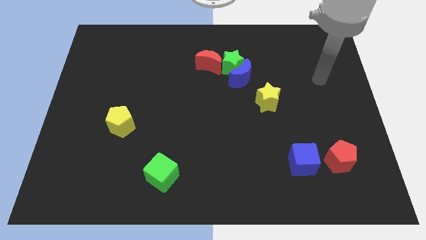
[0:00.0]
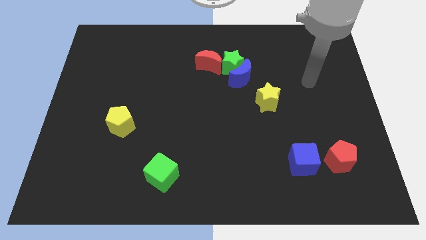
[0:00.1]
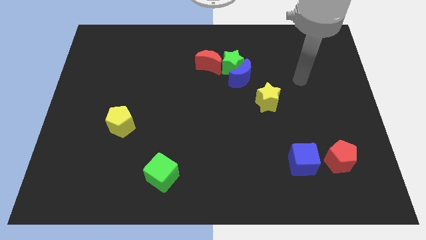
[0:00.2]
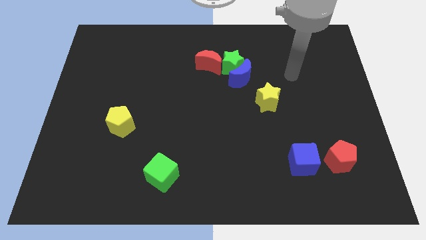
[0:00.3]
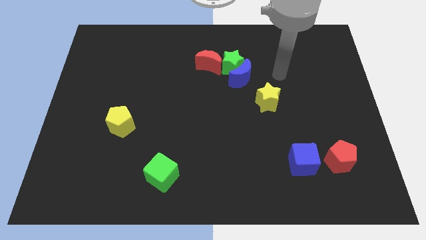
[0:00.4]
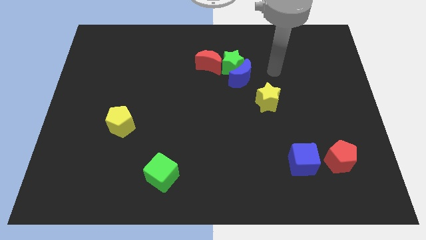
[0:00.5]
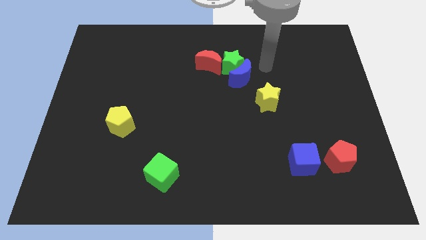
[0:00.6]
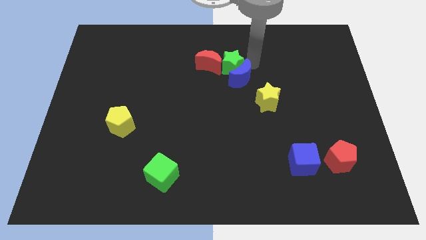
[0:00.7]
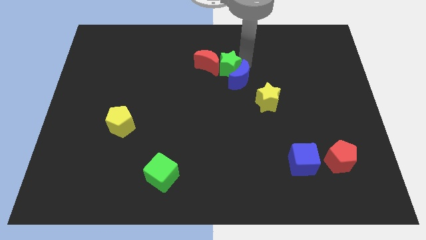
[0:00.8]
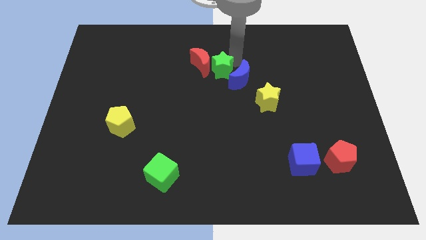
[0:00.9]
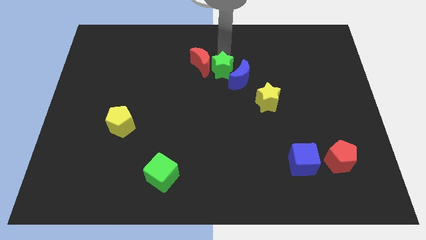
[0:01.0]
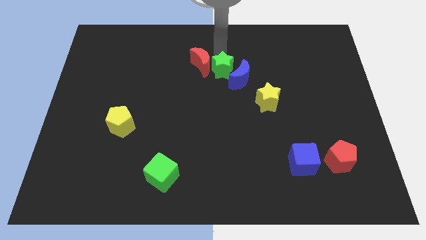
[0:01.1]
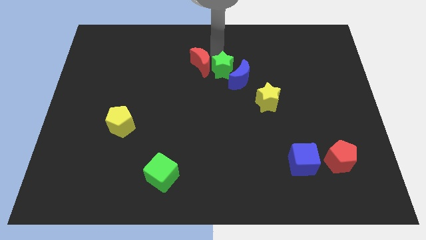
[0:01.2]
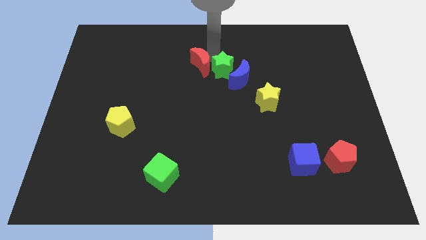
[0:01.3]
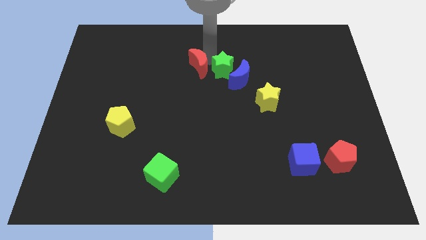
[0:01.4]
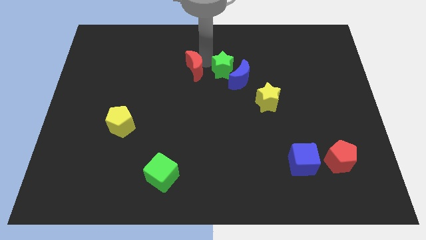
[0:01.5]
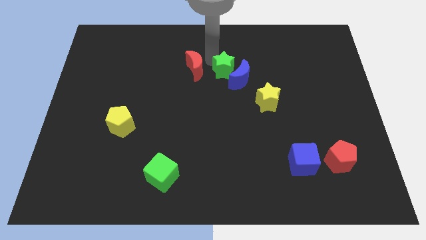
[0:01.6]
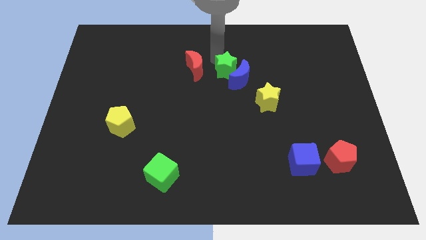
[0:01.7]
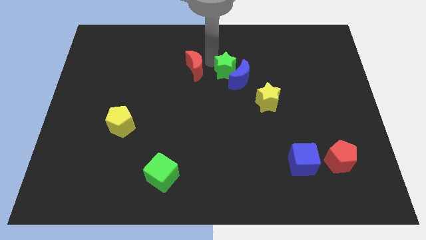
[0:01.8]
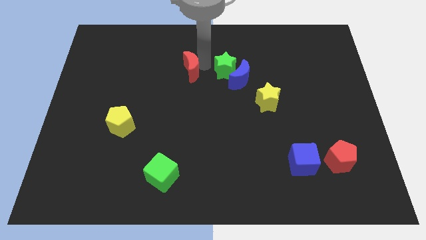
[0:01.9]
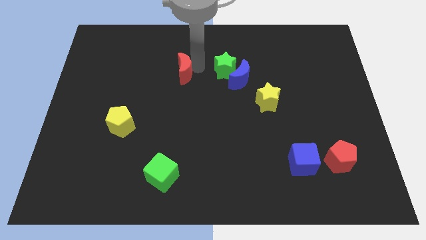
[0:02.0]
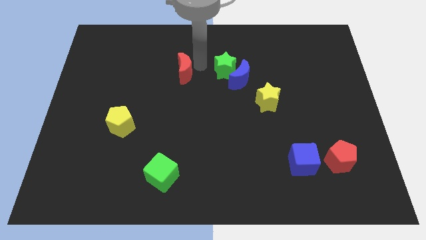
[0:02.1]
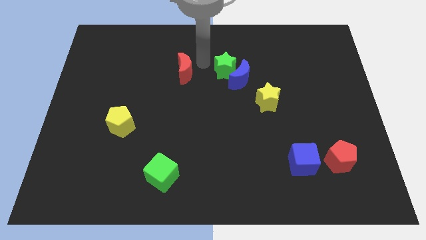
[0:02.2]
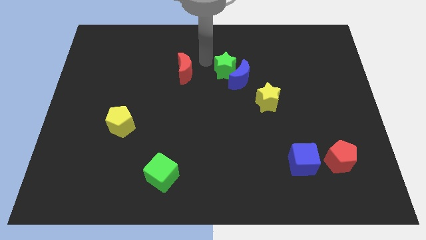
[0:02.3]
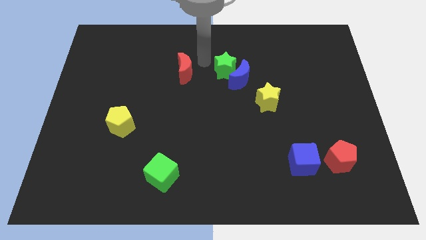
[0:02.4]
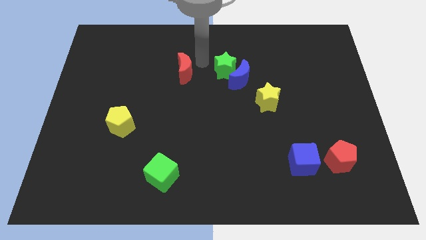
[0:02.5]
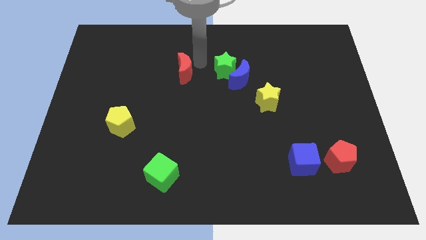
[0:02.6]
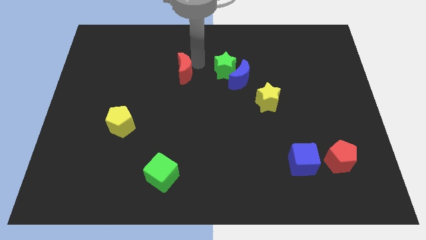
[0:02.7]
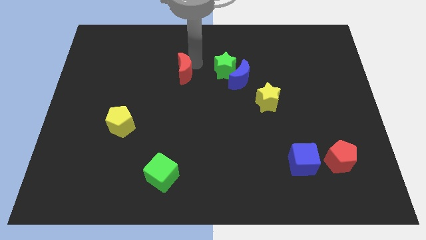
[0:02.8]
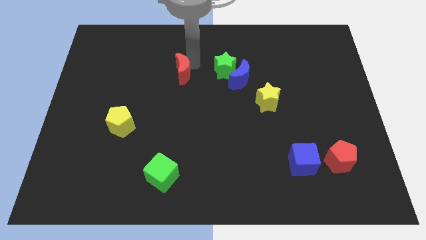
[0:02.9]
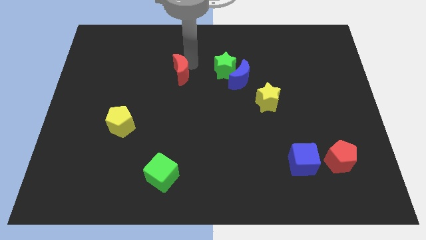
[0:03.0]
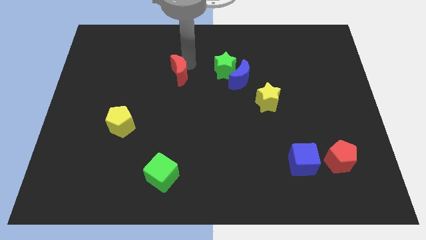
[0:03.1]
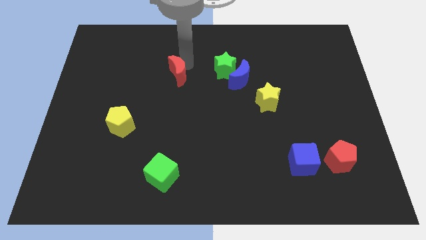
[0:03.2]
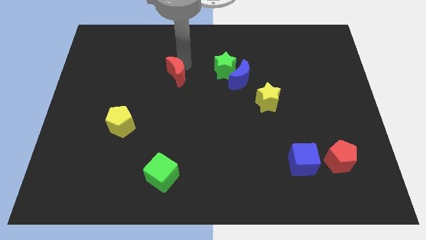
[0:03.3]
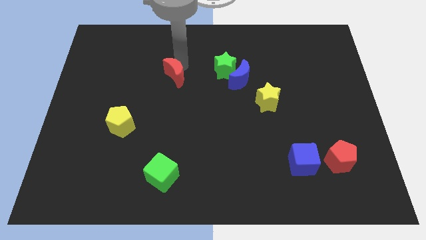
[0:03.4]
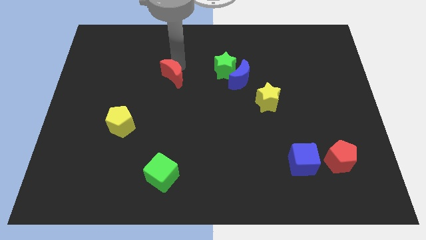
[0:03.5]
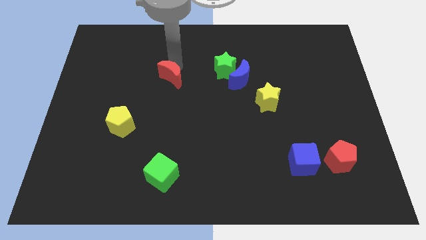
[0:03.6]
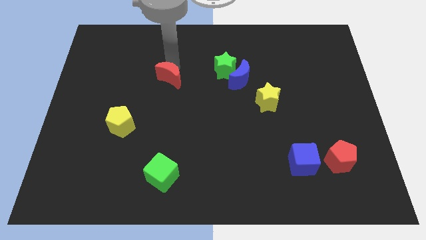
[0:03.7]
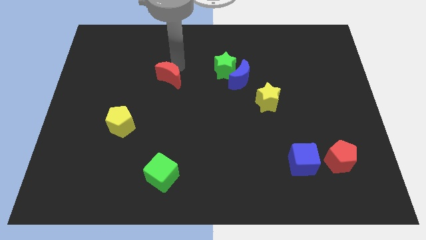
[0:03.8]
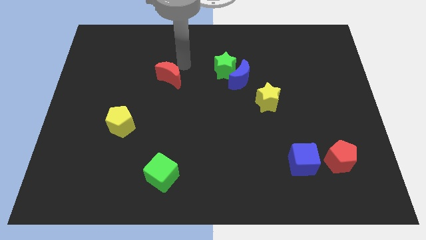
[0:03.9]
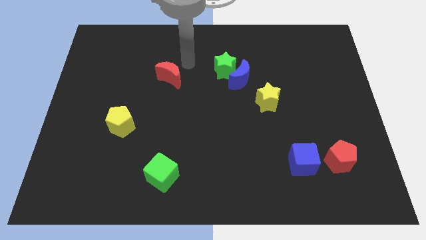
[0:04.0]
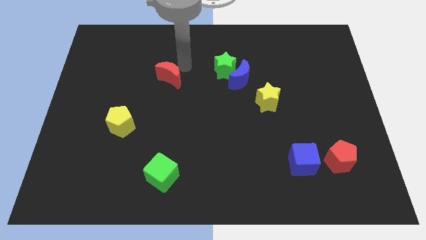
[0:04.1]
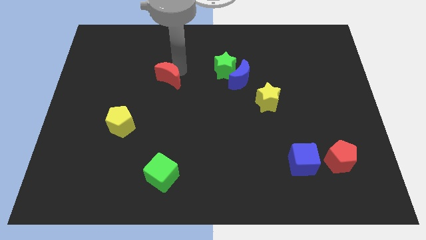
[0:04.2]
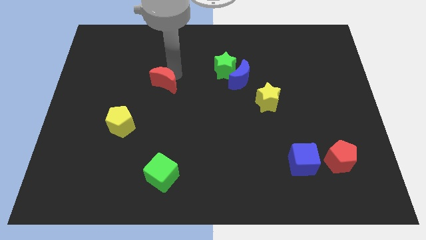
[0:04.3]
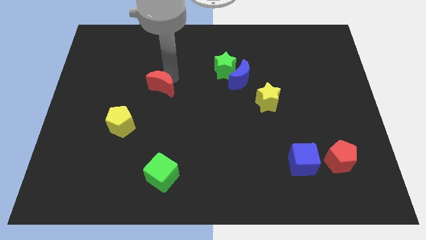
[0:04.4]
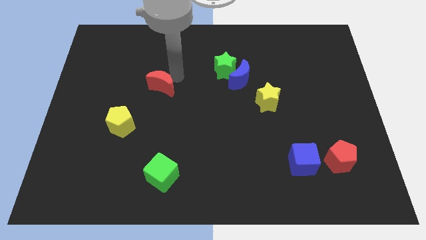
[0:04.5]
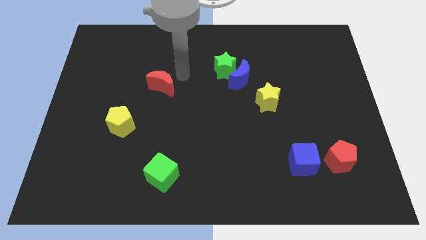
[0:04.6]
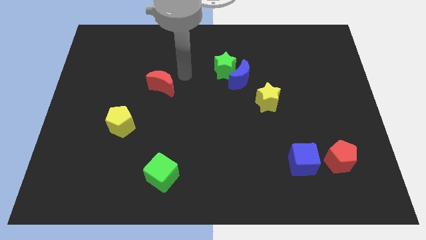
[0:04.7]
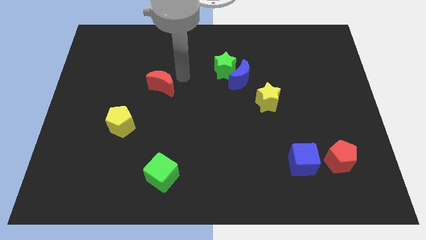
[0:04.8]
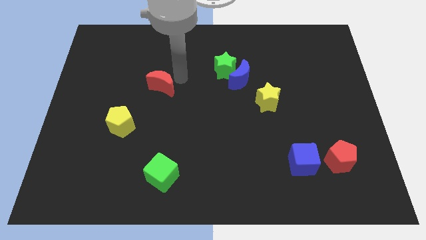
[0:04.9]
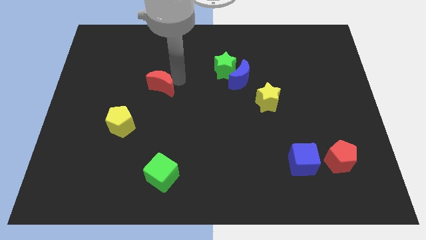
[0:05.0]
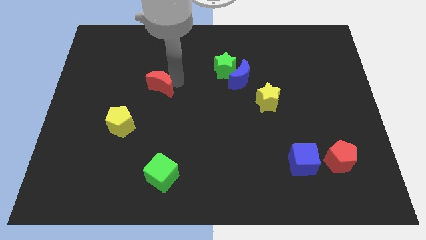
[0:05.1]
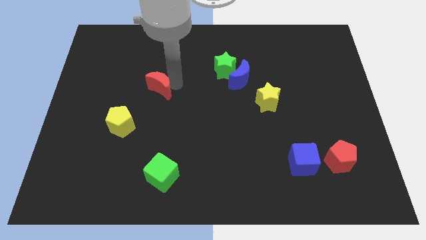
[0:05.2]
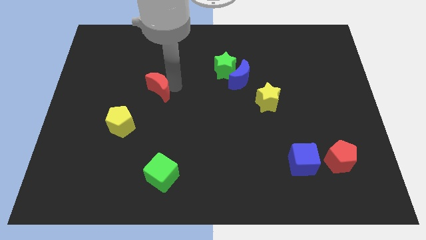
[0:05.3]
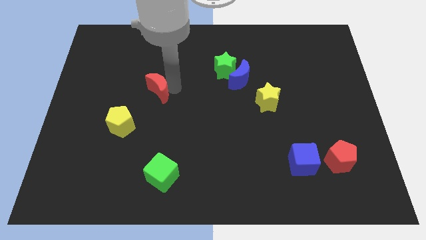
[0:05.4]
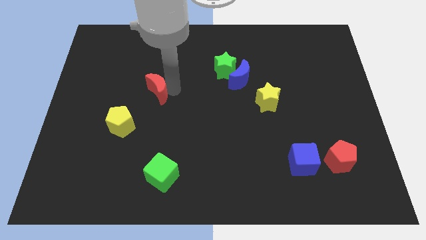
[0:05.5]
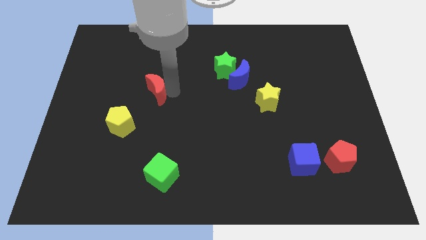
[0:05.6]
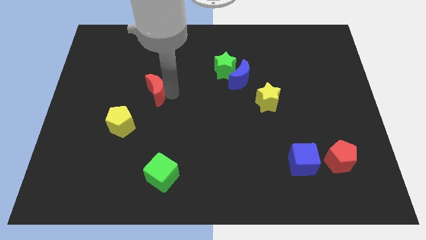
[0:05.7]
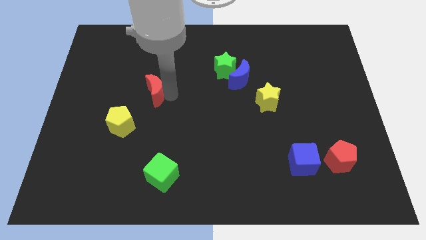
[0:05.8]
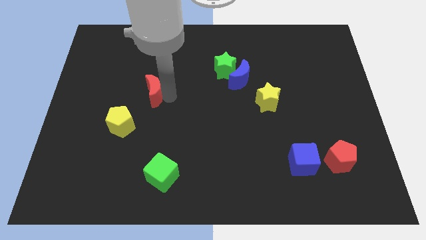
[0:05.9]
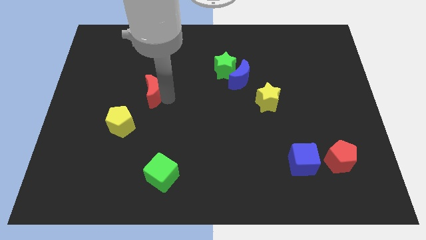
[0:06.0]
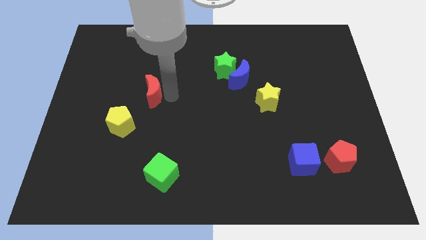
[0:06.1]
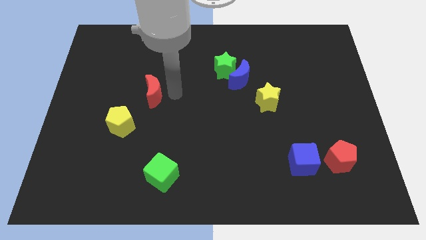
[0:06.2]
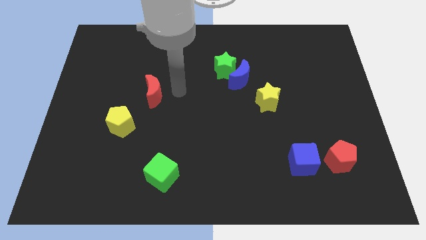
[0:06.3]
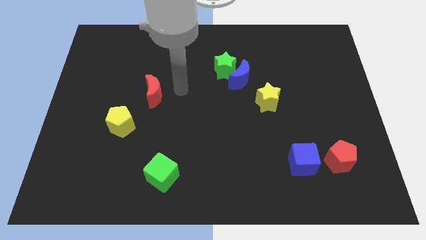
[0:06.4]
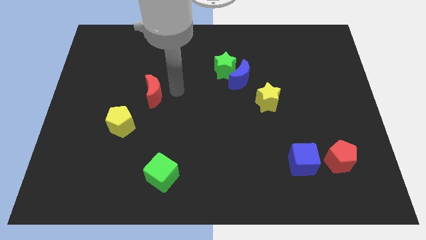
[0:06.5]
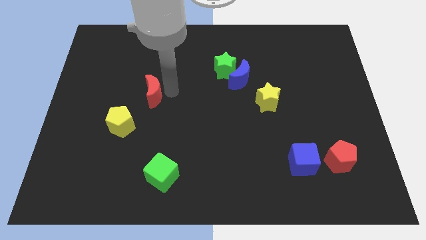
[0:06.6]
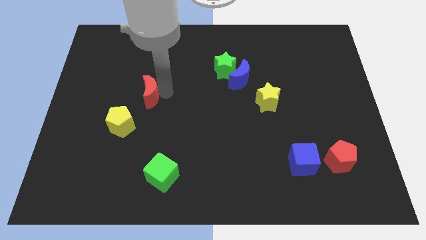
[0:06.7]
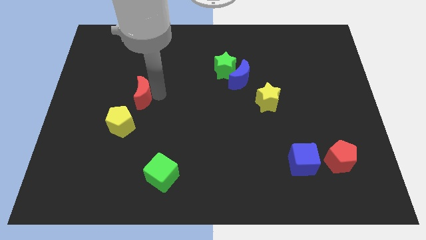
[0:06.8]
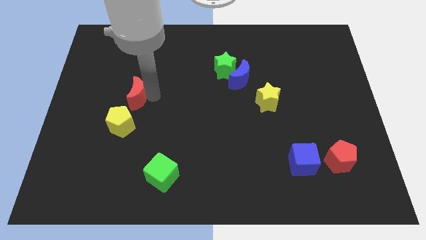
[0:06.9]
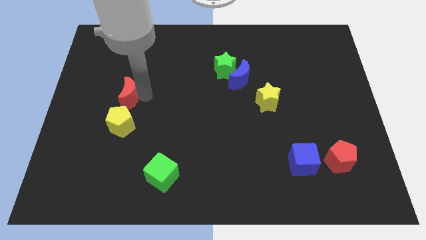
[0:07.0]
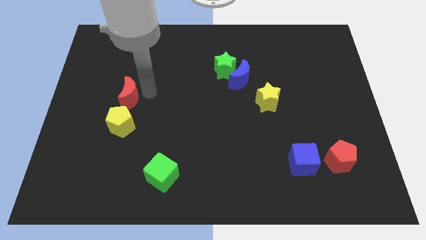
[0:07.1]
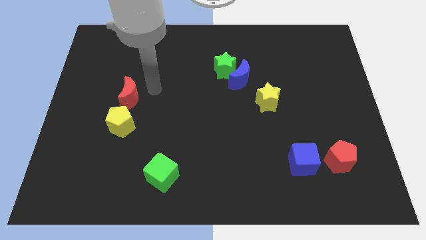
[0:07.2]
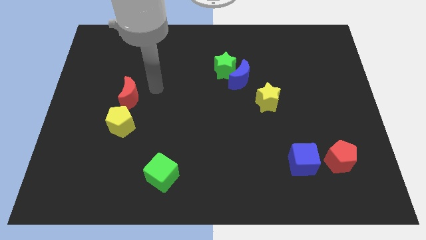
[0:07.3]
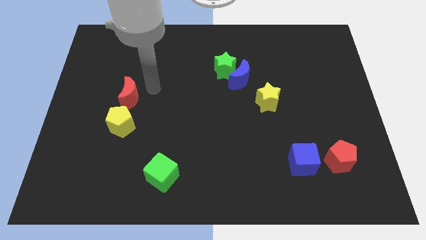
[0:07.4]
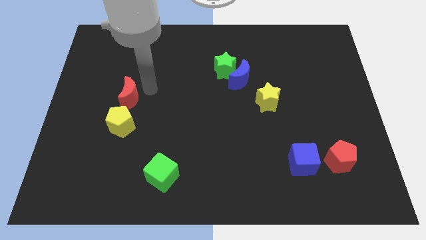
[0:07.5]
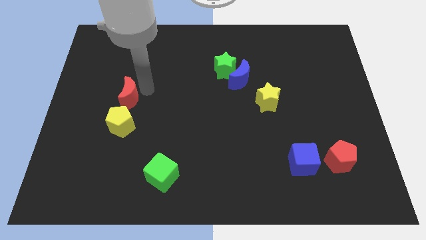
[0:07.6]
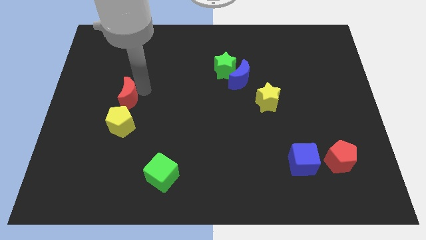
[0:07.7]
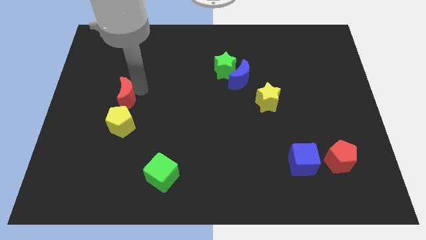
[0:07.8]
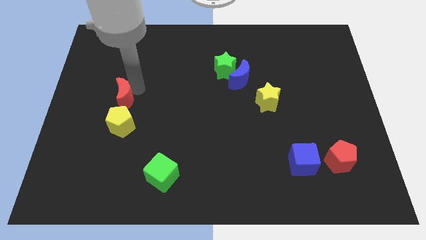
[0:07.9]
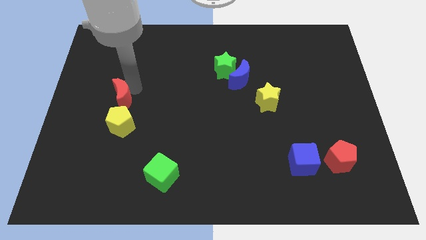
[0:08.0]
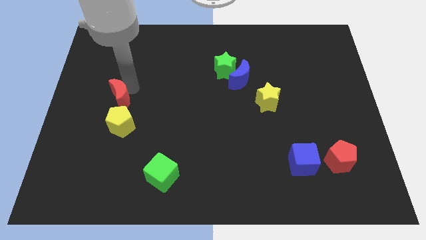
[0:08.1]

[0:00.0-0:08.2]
slide the red moon to the top left of the yellow pentagon
